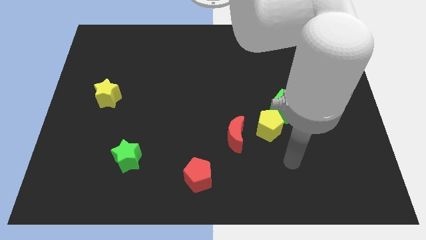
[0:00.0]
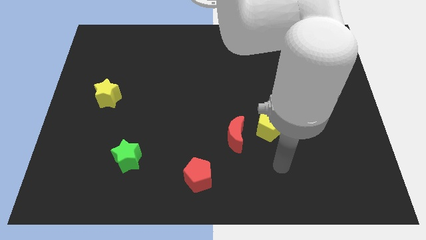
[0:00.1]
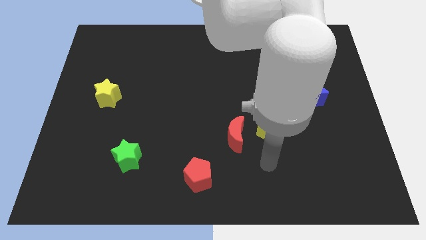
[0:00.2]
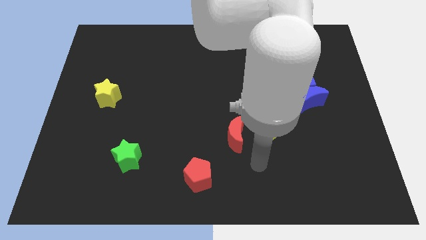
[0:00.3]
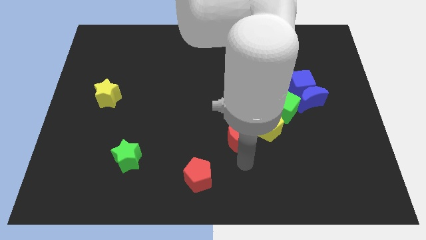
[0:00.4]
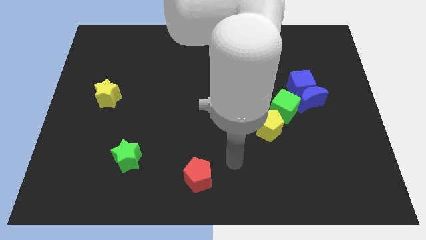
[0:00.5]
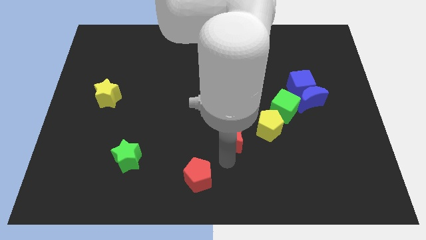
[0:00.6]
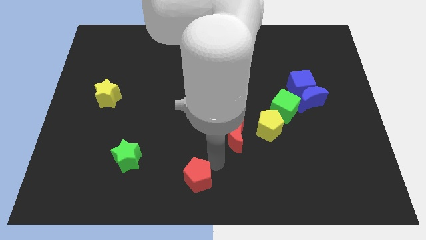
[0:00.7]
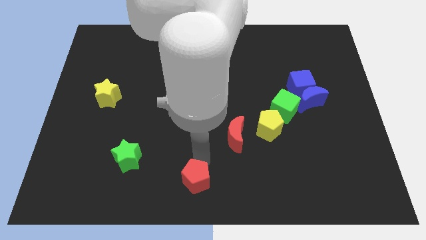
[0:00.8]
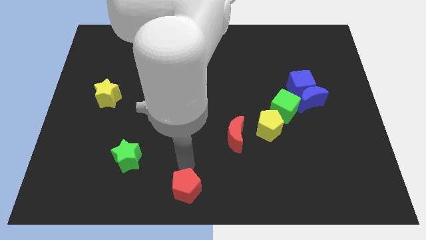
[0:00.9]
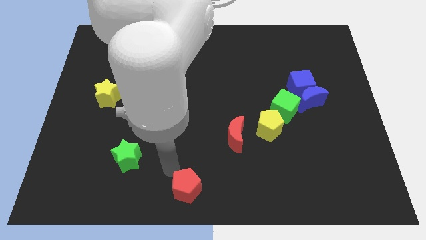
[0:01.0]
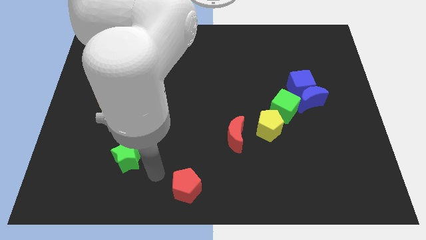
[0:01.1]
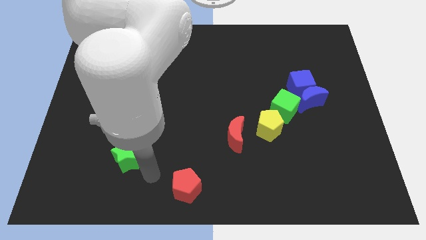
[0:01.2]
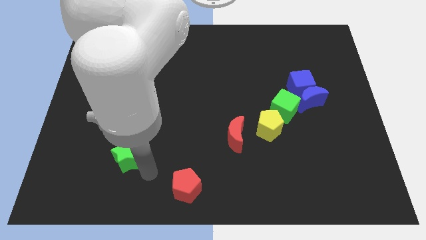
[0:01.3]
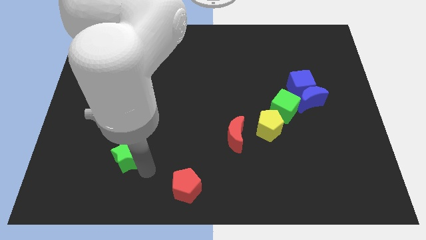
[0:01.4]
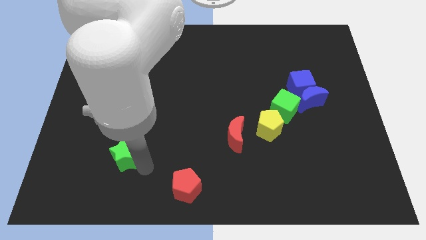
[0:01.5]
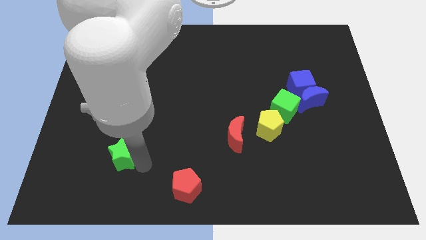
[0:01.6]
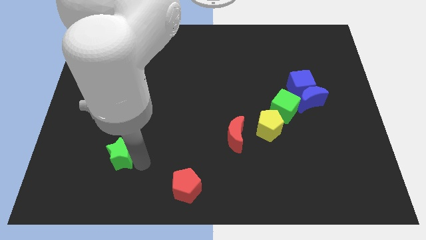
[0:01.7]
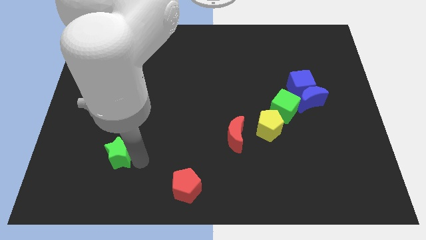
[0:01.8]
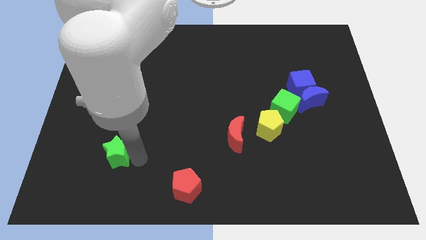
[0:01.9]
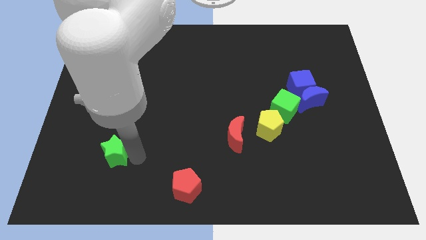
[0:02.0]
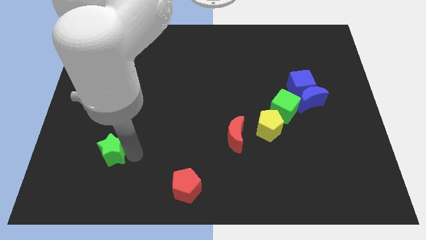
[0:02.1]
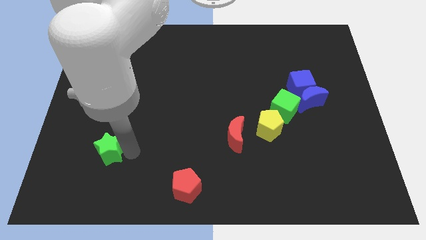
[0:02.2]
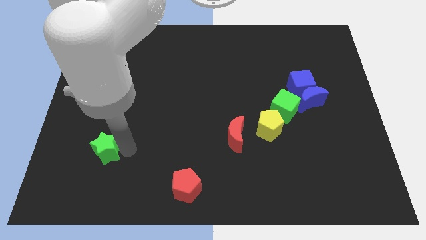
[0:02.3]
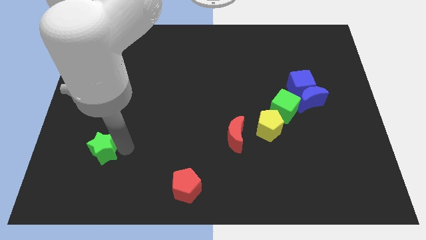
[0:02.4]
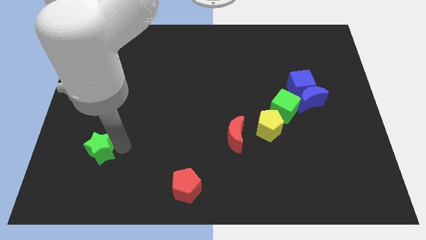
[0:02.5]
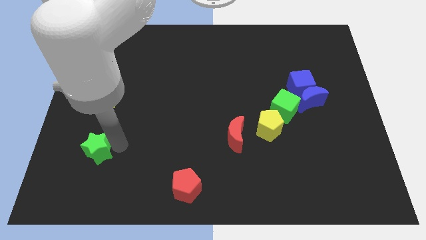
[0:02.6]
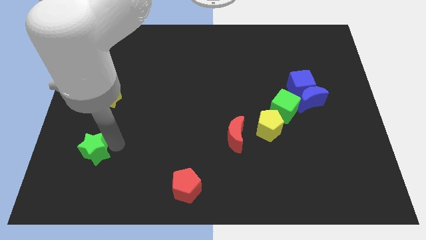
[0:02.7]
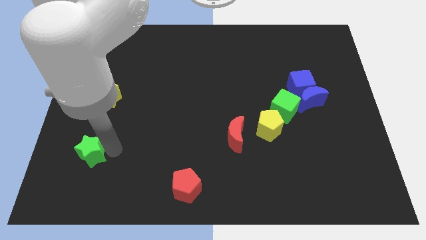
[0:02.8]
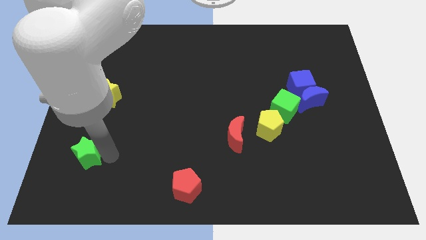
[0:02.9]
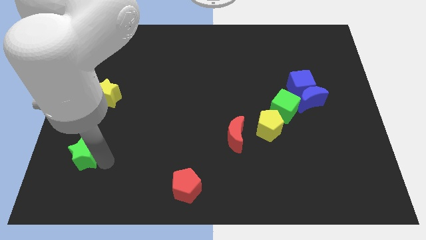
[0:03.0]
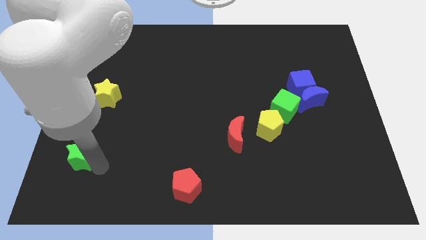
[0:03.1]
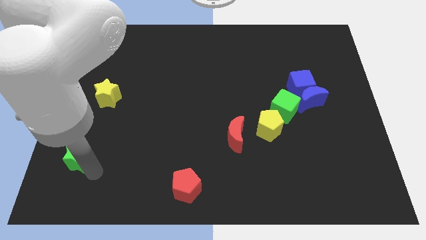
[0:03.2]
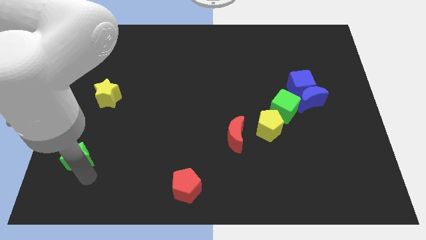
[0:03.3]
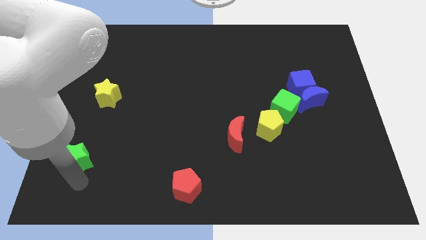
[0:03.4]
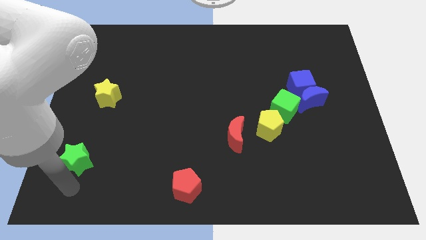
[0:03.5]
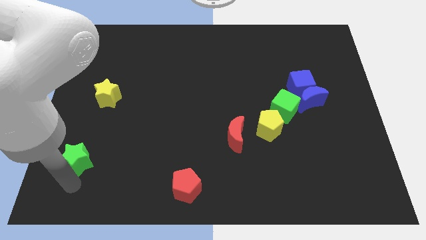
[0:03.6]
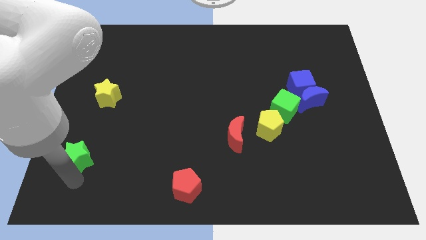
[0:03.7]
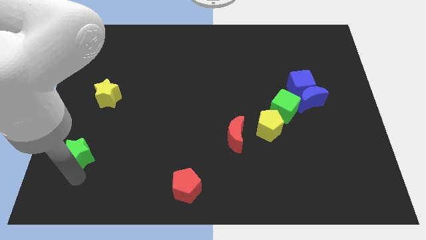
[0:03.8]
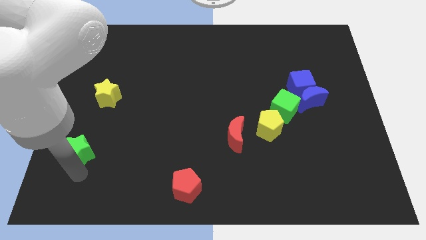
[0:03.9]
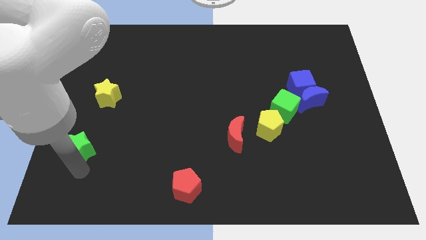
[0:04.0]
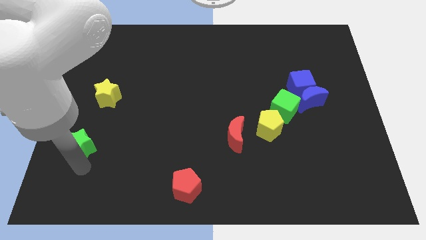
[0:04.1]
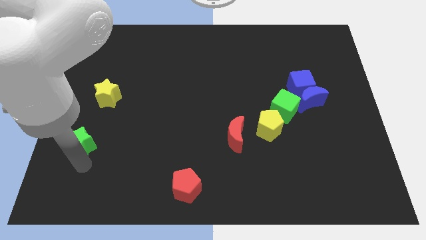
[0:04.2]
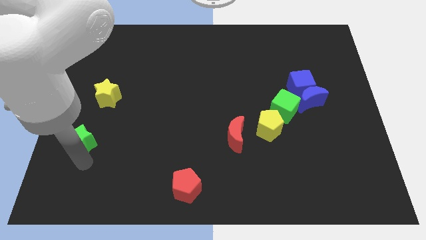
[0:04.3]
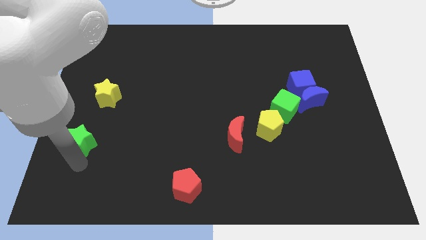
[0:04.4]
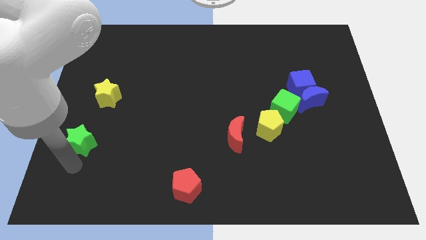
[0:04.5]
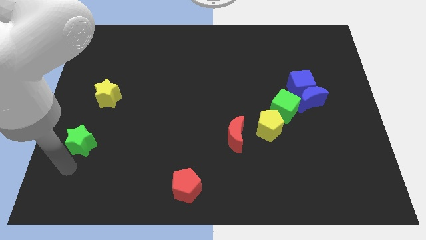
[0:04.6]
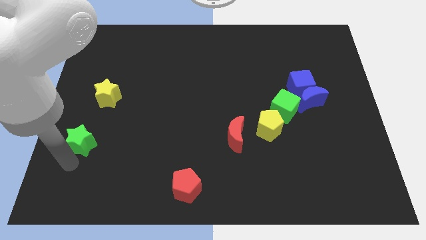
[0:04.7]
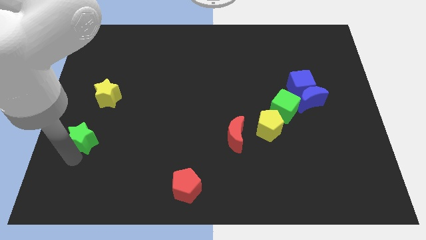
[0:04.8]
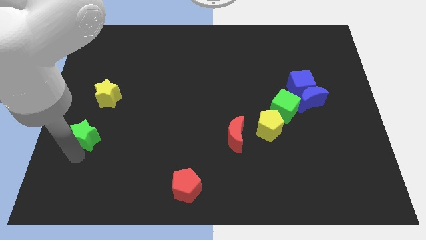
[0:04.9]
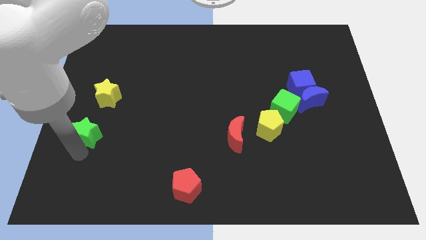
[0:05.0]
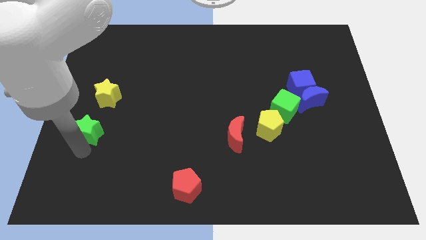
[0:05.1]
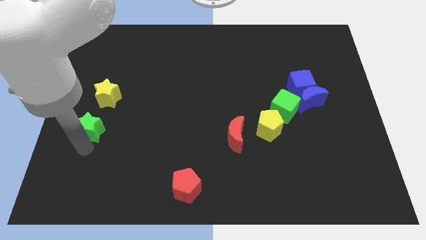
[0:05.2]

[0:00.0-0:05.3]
put the green star to the left side of the board

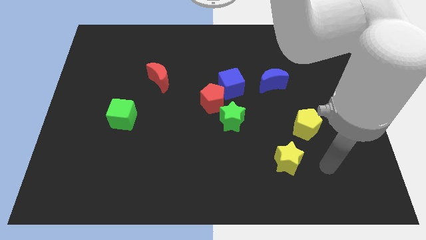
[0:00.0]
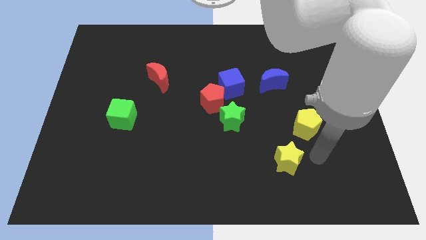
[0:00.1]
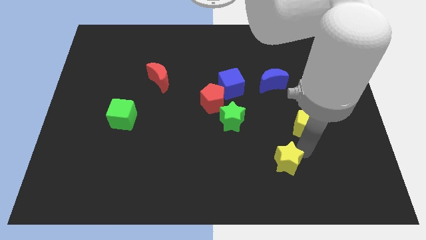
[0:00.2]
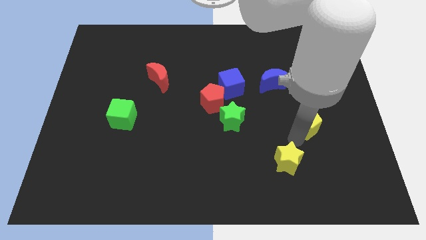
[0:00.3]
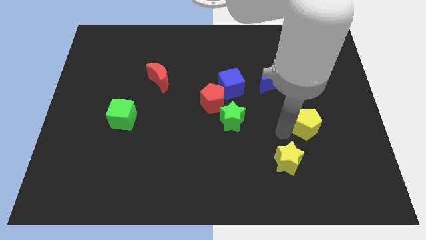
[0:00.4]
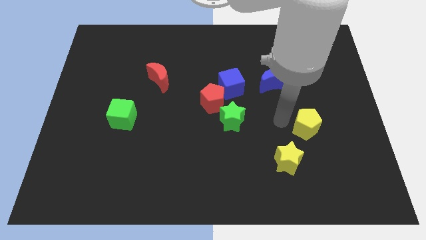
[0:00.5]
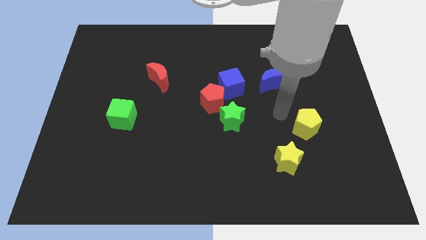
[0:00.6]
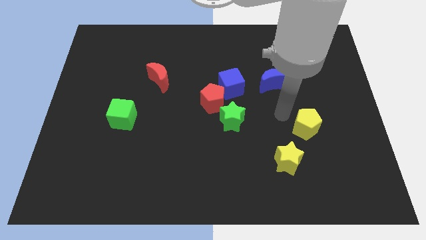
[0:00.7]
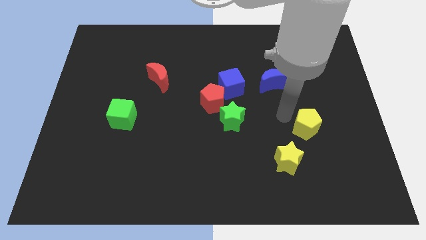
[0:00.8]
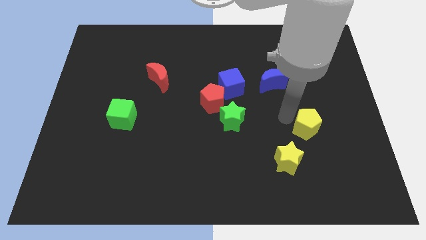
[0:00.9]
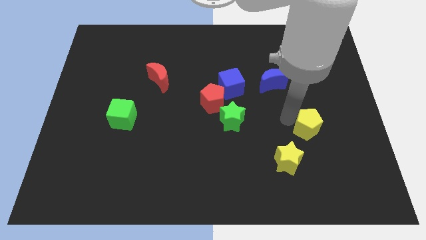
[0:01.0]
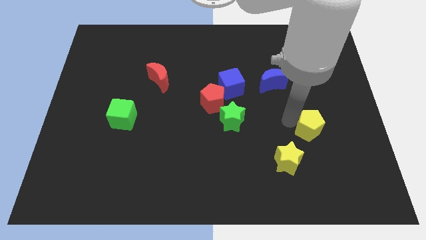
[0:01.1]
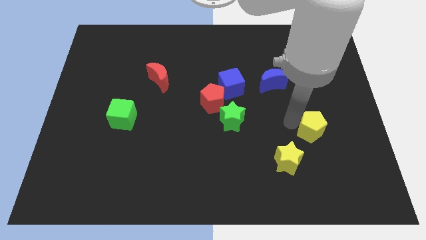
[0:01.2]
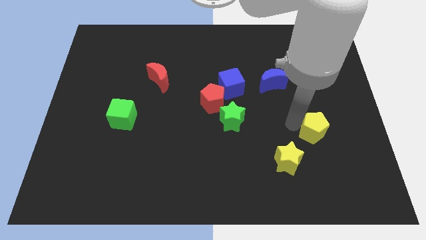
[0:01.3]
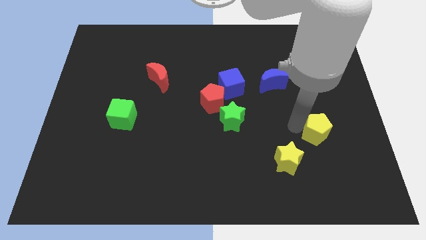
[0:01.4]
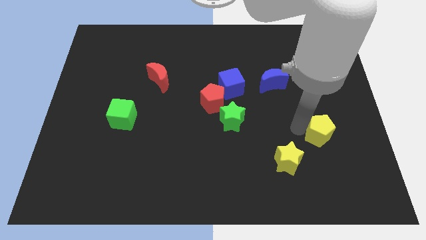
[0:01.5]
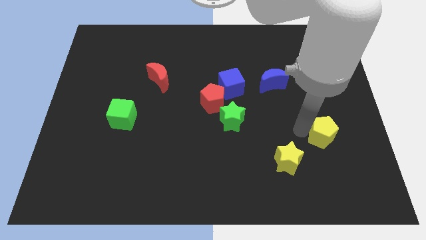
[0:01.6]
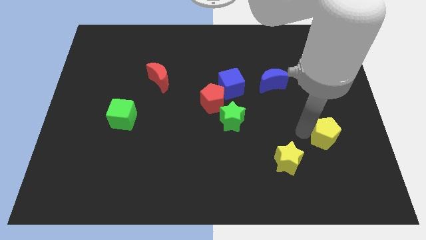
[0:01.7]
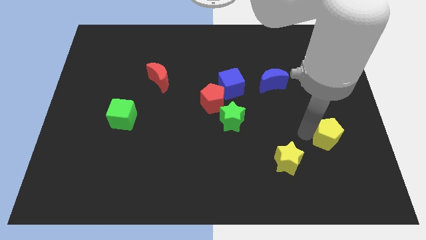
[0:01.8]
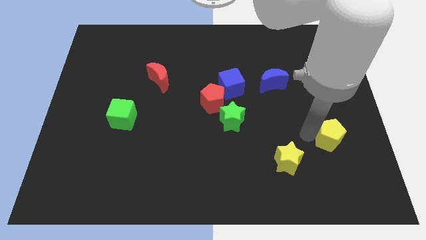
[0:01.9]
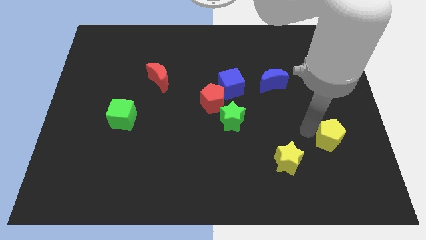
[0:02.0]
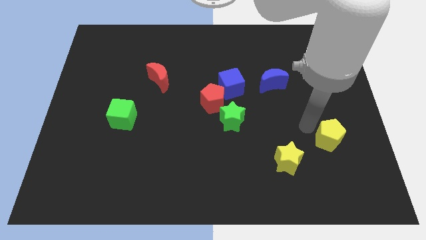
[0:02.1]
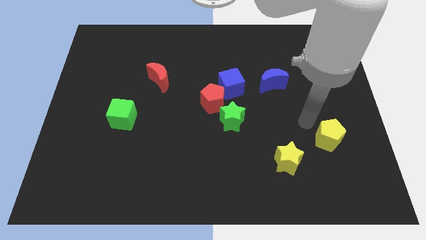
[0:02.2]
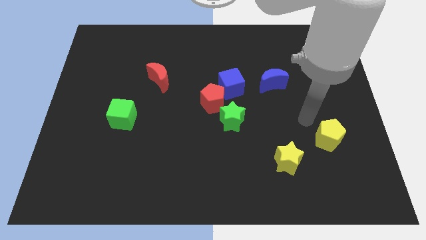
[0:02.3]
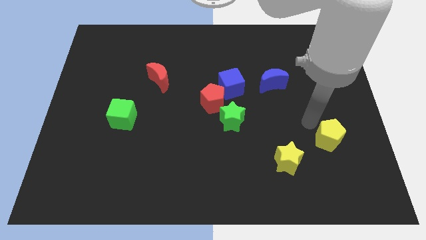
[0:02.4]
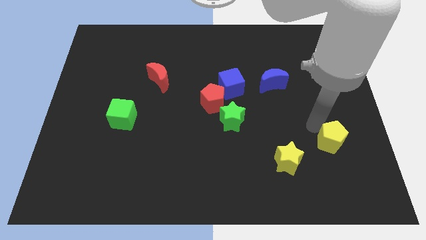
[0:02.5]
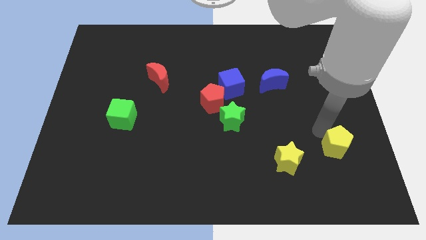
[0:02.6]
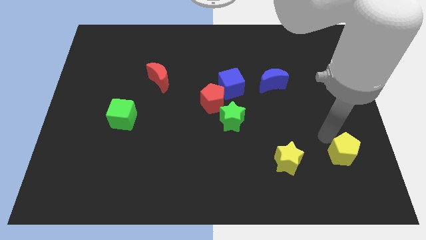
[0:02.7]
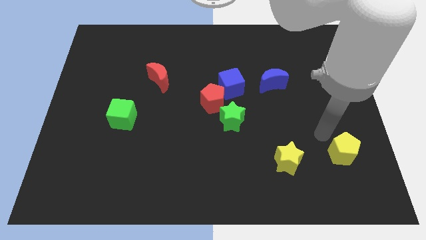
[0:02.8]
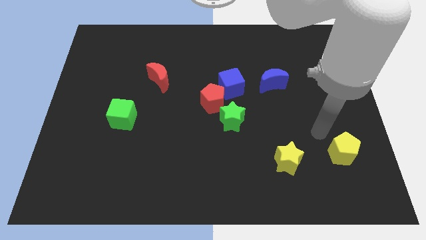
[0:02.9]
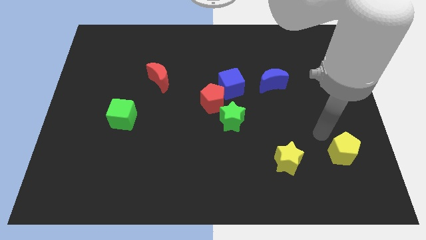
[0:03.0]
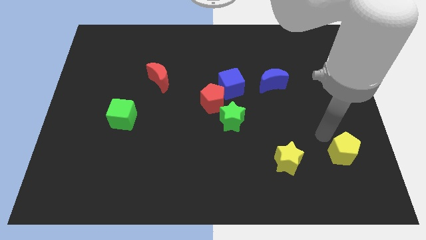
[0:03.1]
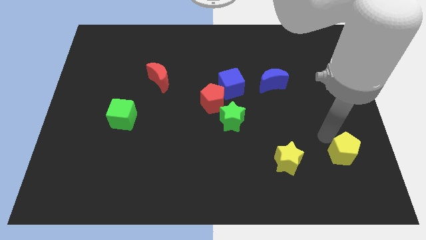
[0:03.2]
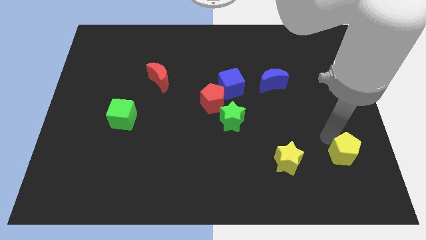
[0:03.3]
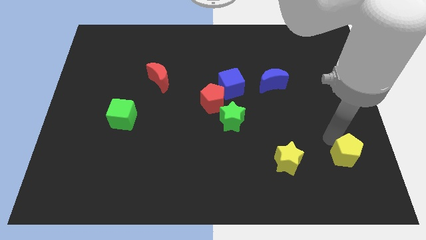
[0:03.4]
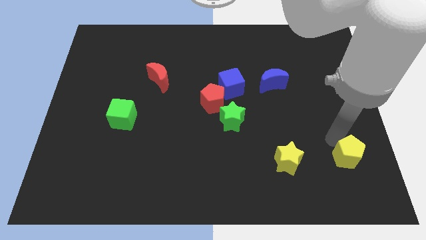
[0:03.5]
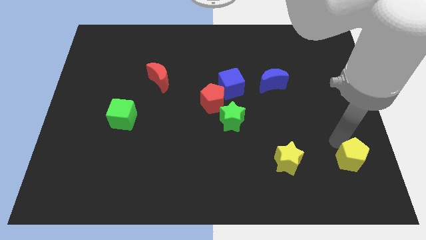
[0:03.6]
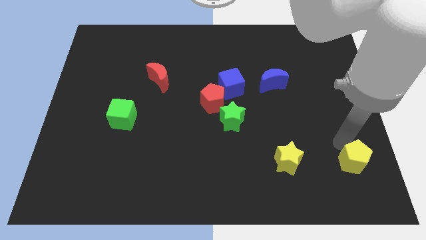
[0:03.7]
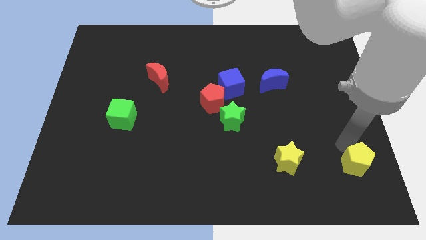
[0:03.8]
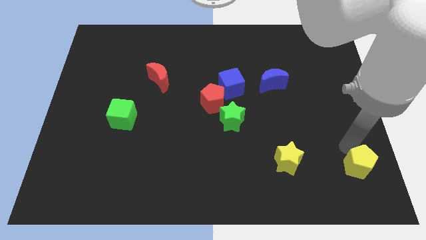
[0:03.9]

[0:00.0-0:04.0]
push the yellow pentagon to the bottom right
